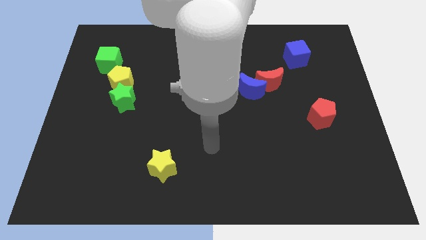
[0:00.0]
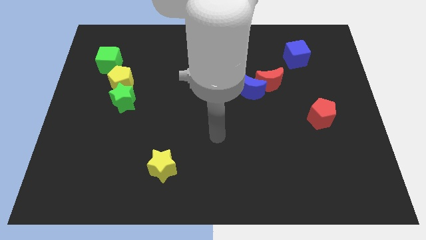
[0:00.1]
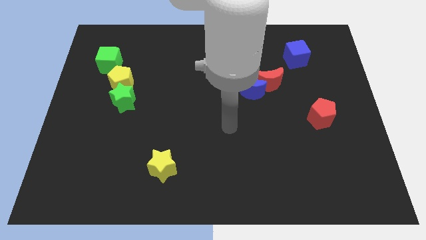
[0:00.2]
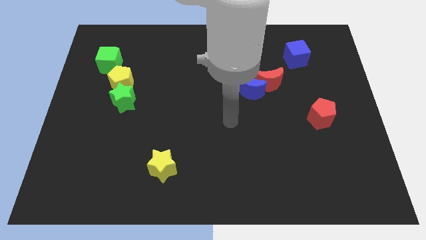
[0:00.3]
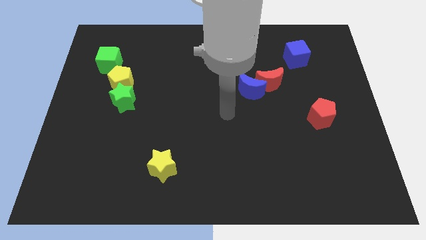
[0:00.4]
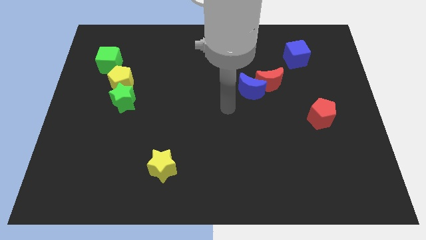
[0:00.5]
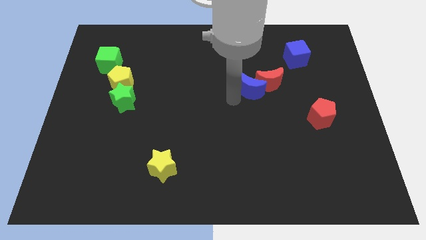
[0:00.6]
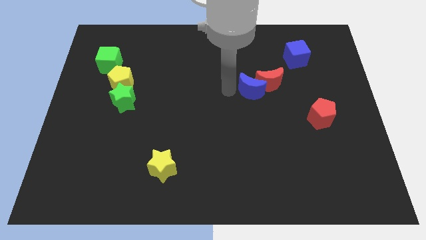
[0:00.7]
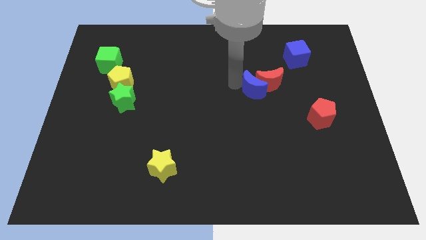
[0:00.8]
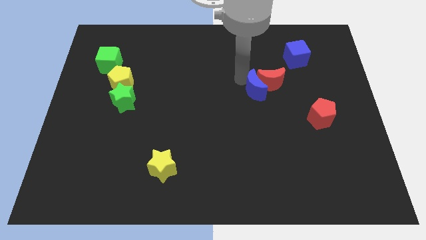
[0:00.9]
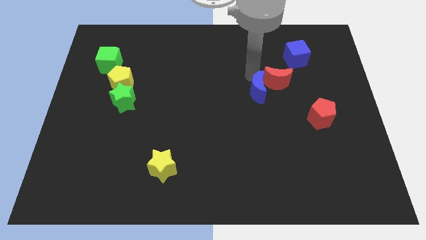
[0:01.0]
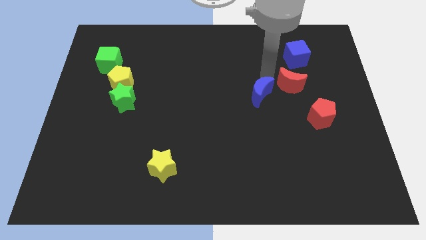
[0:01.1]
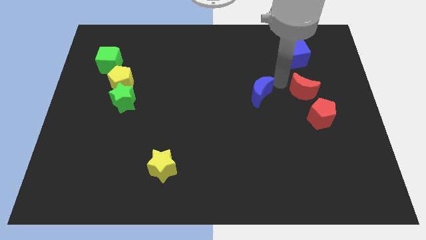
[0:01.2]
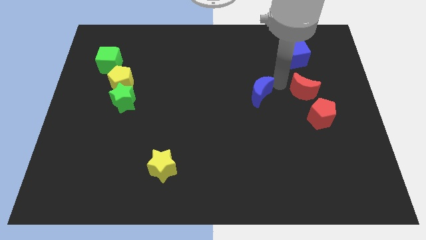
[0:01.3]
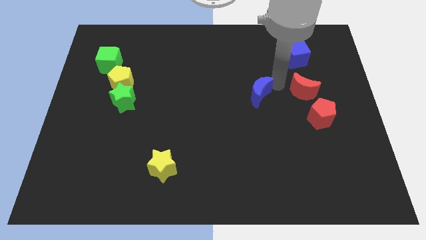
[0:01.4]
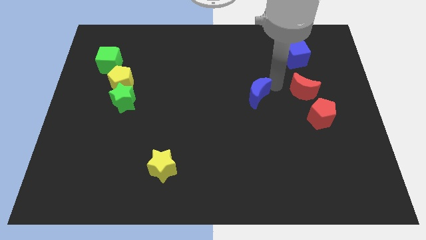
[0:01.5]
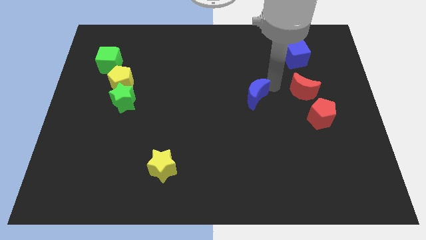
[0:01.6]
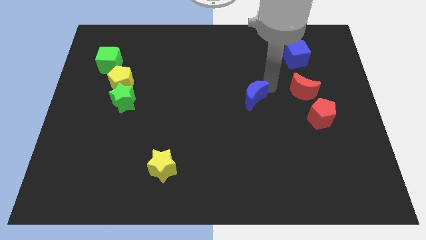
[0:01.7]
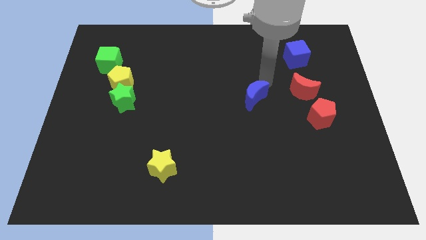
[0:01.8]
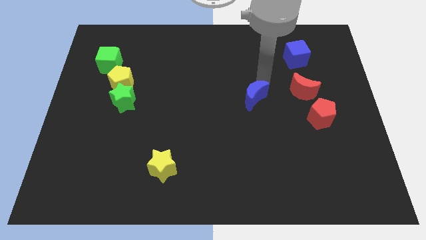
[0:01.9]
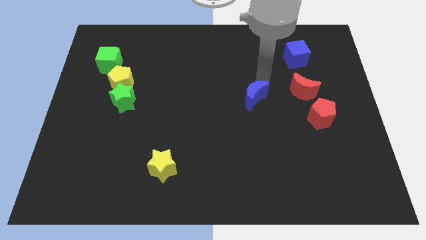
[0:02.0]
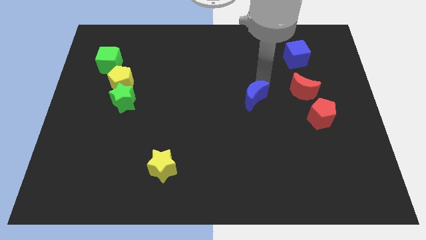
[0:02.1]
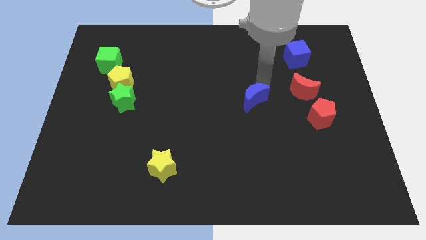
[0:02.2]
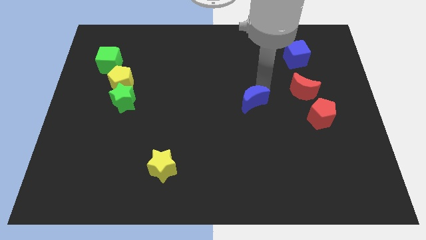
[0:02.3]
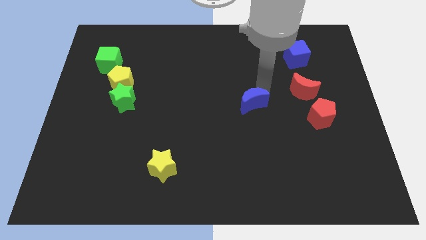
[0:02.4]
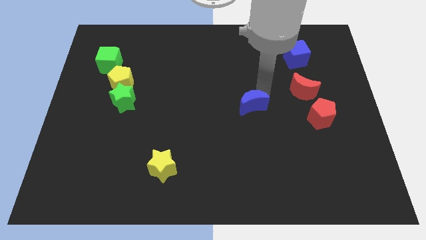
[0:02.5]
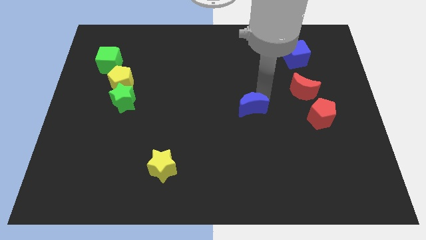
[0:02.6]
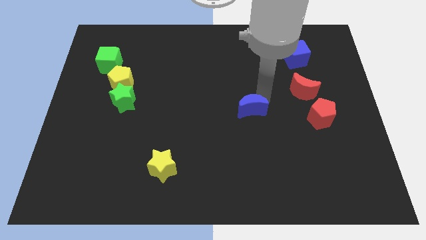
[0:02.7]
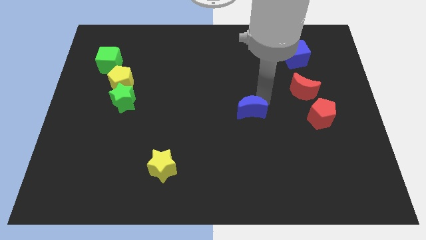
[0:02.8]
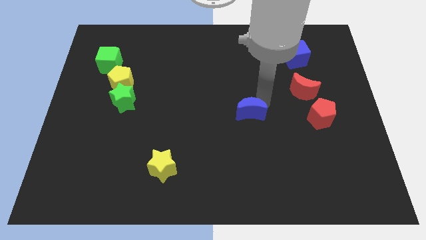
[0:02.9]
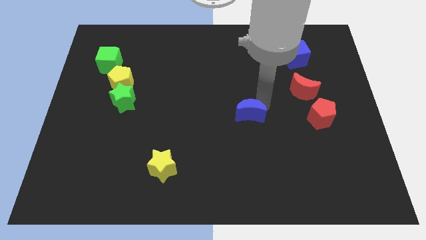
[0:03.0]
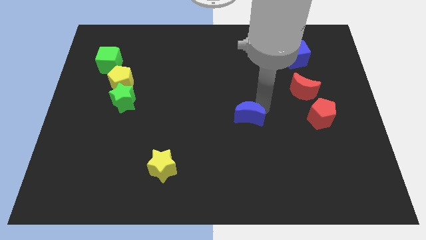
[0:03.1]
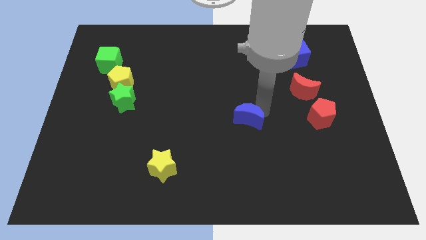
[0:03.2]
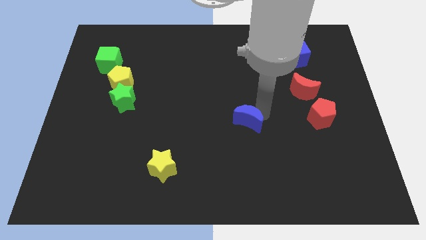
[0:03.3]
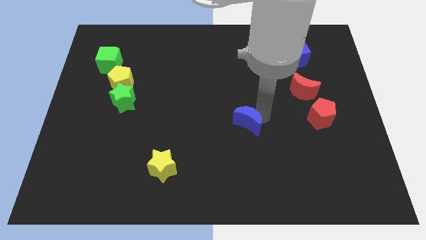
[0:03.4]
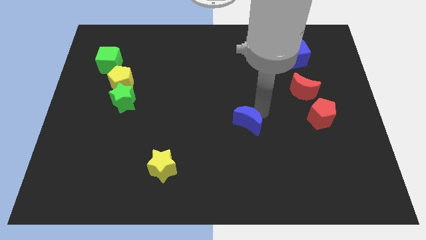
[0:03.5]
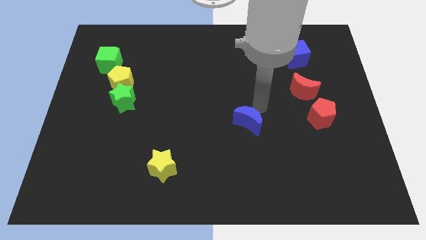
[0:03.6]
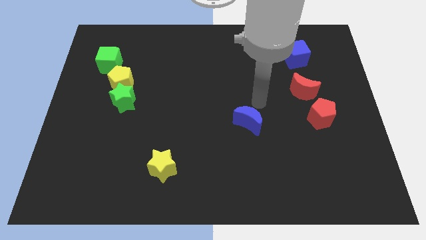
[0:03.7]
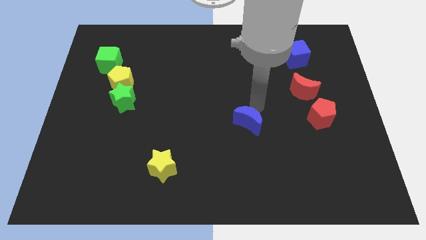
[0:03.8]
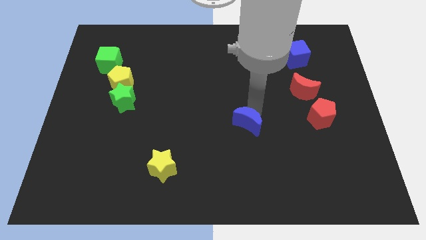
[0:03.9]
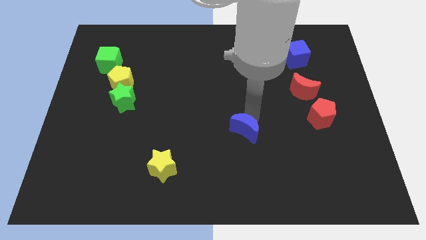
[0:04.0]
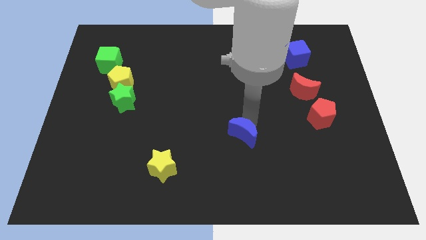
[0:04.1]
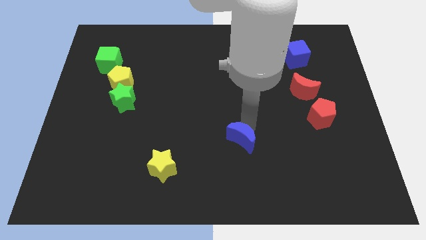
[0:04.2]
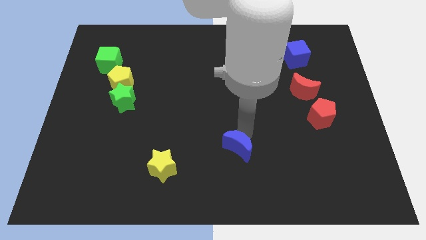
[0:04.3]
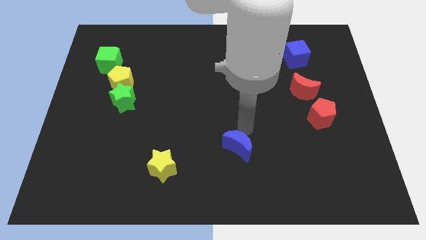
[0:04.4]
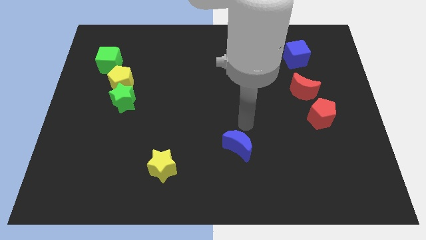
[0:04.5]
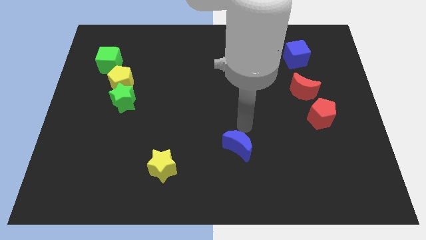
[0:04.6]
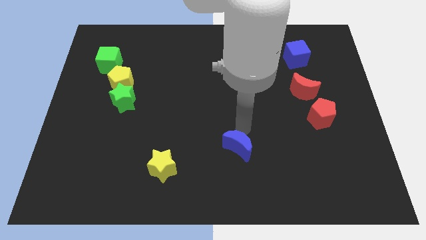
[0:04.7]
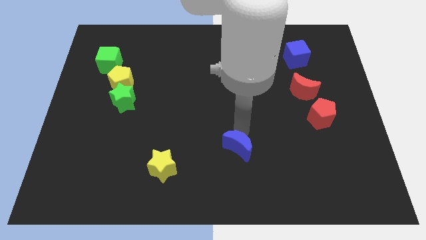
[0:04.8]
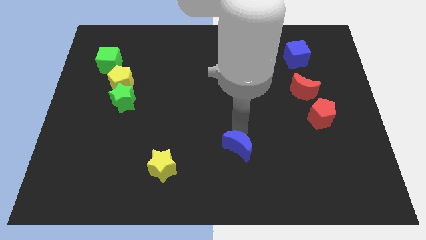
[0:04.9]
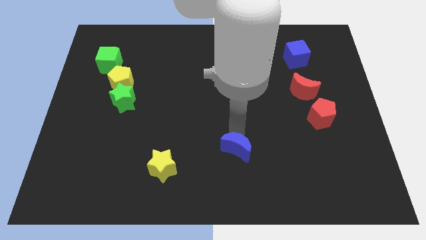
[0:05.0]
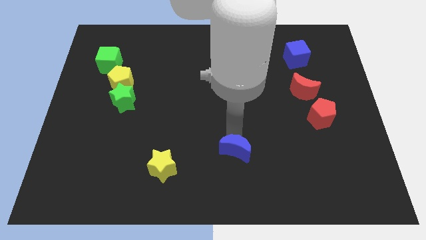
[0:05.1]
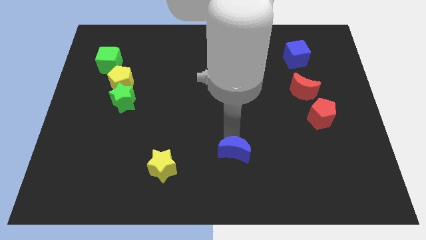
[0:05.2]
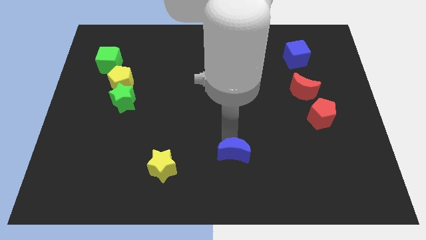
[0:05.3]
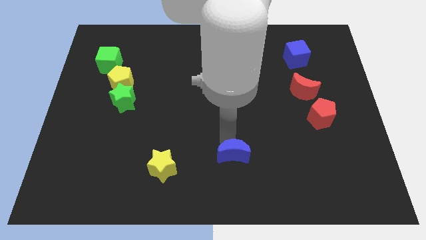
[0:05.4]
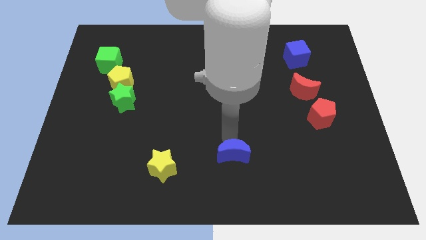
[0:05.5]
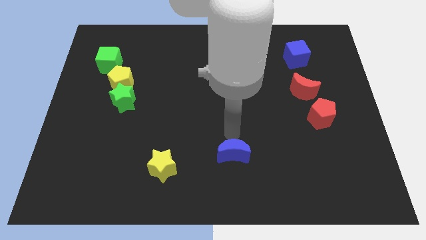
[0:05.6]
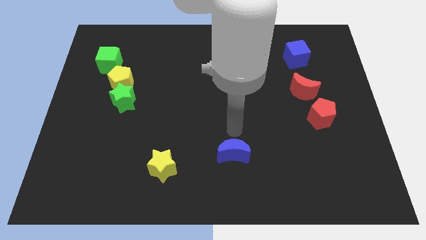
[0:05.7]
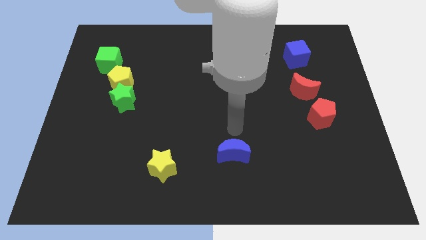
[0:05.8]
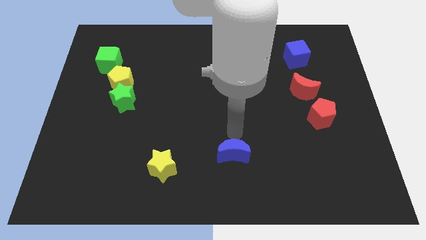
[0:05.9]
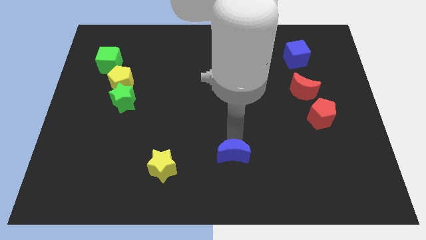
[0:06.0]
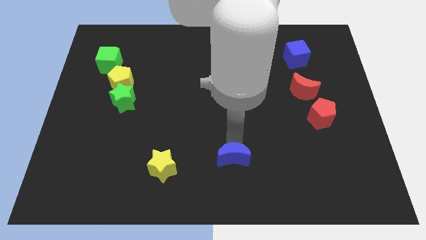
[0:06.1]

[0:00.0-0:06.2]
push the blue moon to the bottom side

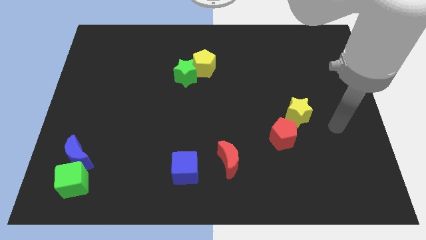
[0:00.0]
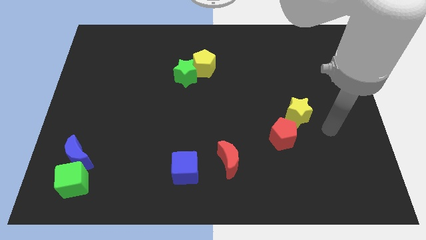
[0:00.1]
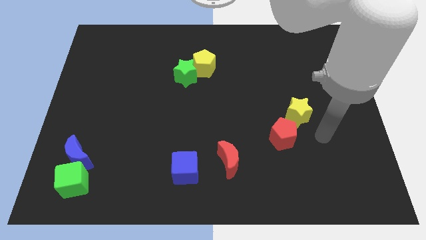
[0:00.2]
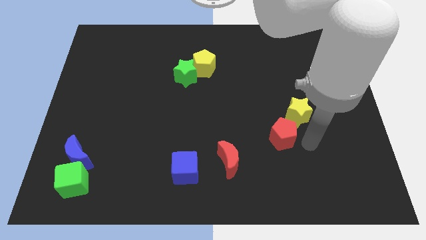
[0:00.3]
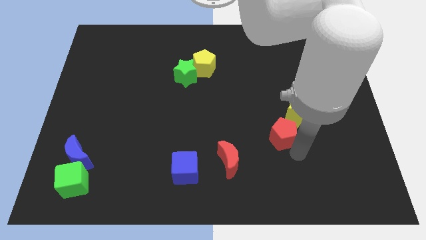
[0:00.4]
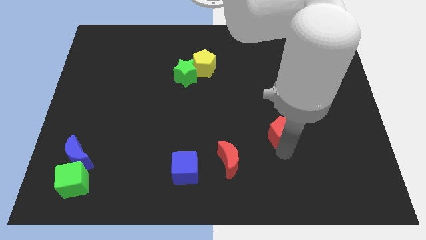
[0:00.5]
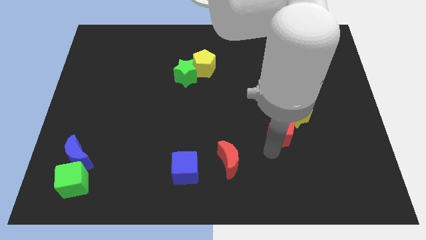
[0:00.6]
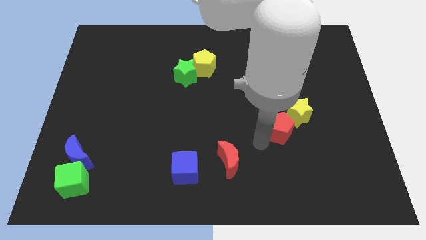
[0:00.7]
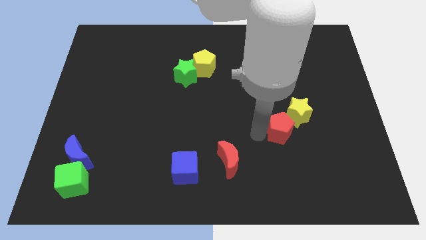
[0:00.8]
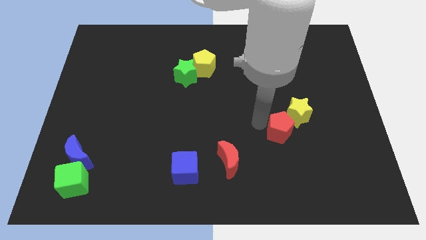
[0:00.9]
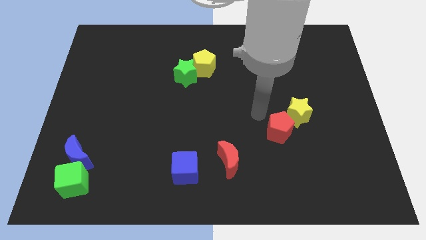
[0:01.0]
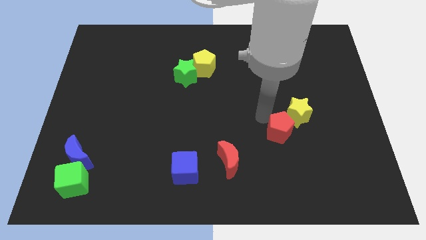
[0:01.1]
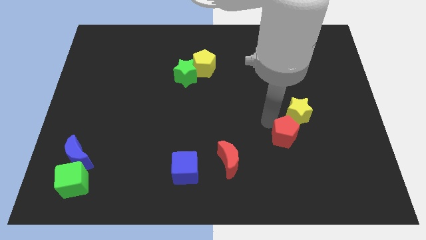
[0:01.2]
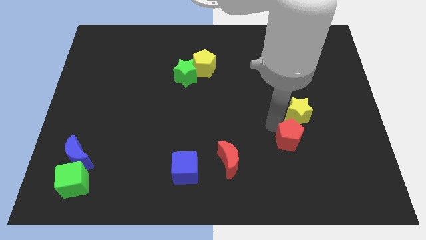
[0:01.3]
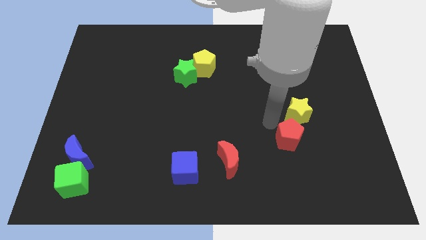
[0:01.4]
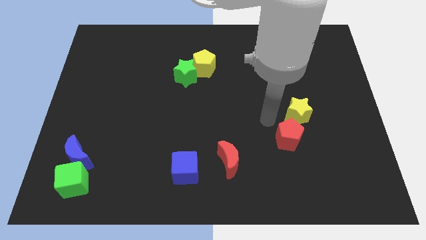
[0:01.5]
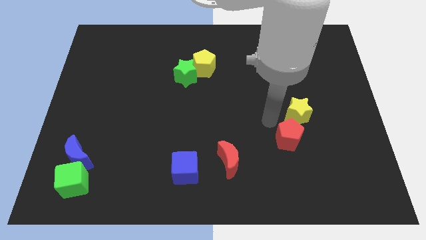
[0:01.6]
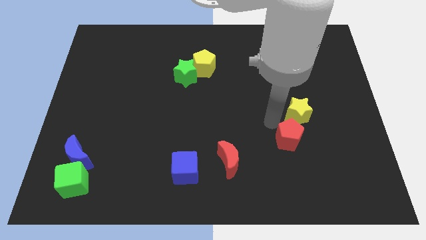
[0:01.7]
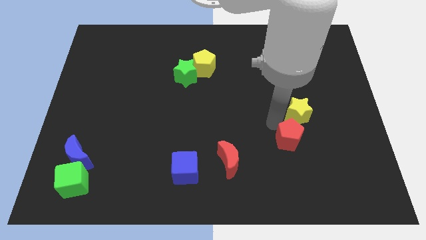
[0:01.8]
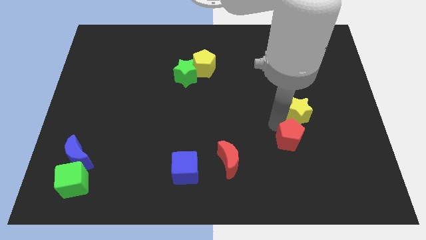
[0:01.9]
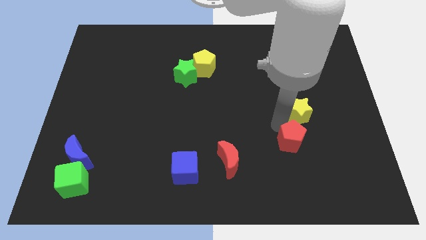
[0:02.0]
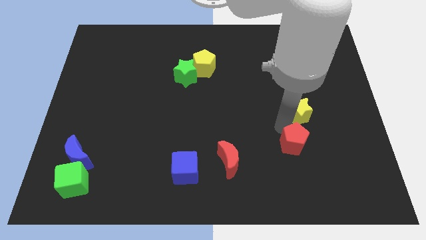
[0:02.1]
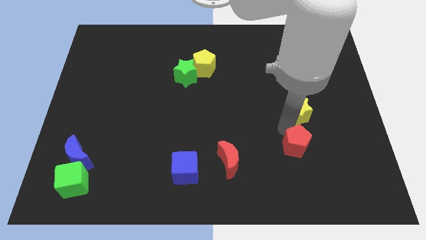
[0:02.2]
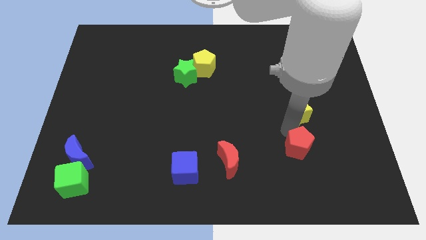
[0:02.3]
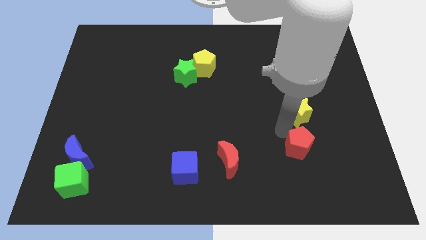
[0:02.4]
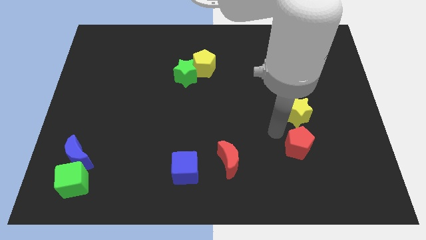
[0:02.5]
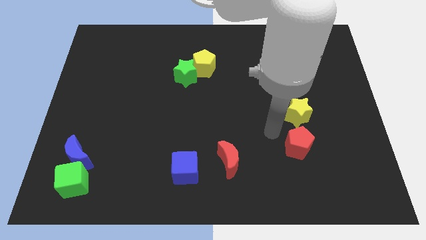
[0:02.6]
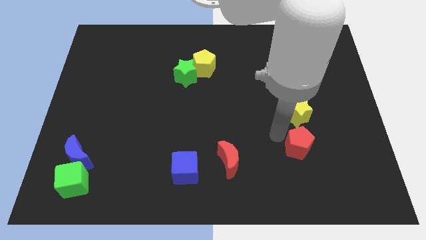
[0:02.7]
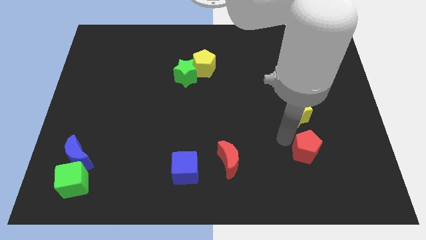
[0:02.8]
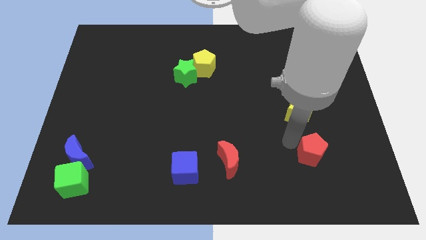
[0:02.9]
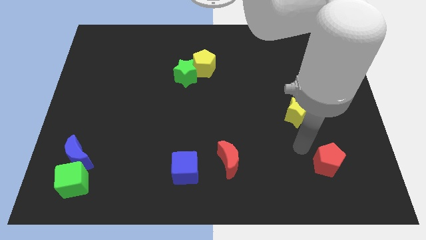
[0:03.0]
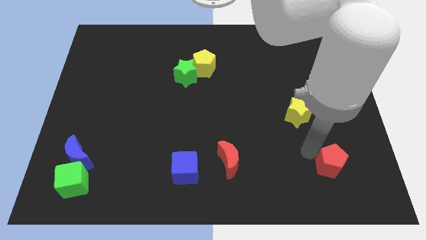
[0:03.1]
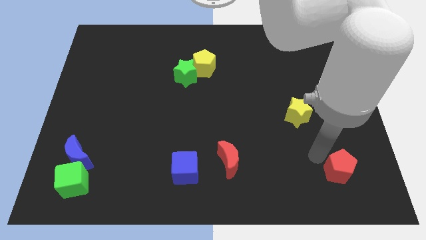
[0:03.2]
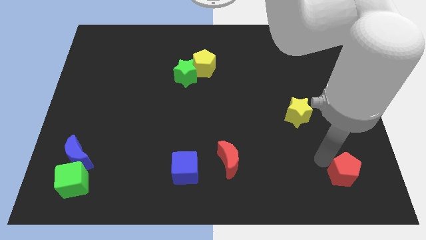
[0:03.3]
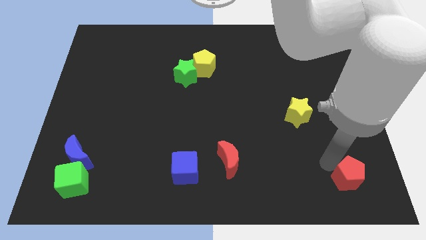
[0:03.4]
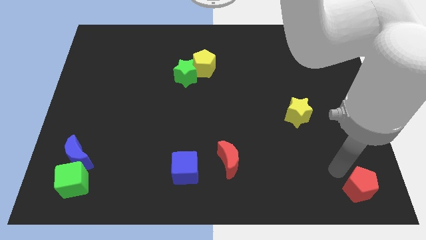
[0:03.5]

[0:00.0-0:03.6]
push the red pentagon to the bottom right of the board
